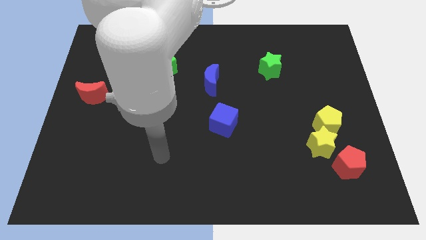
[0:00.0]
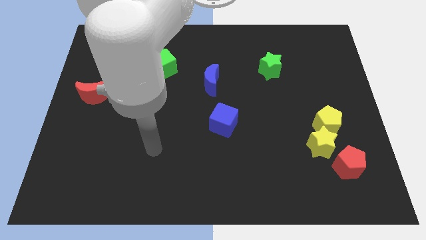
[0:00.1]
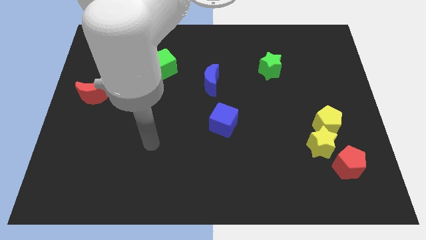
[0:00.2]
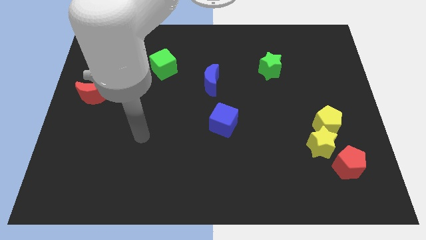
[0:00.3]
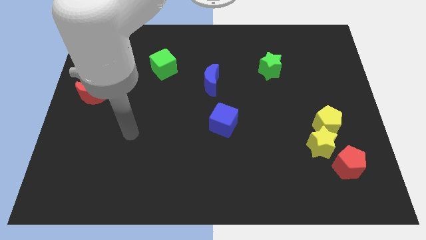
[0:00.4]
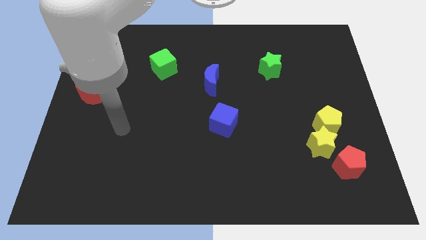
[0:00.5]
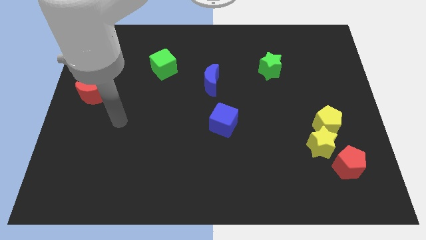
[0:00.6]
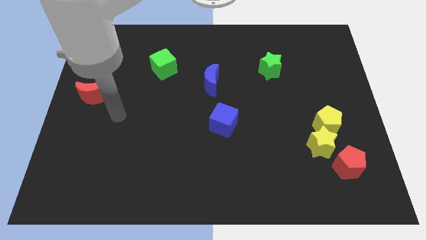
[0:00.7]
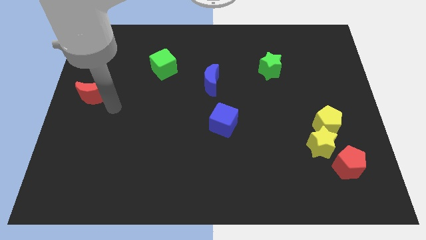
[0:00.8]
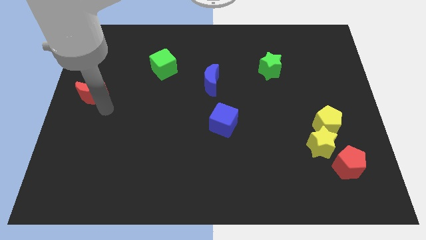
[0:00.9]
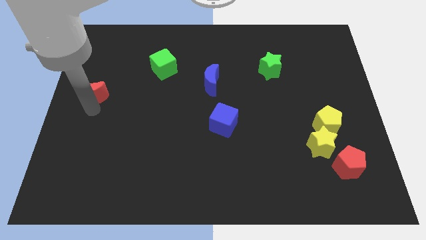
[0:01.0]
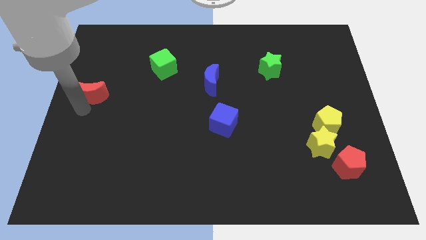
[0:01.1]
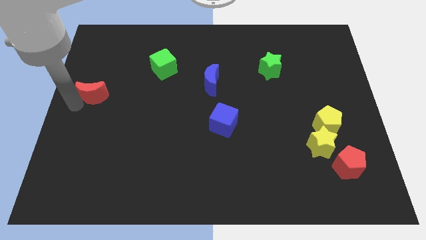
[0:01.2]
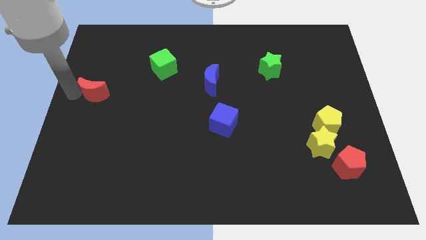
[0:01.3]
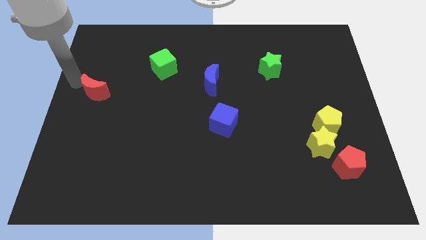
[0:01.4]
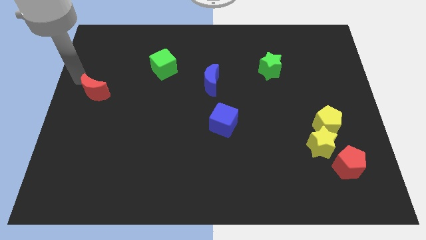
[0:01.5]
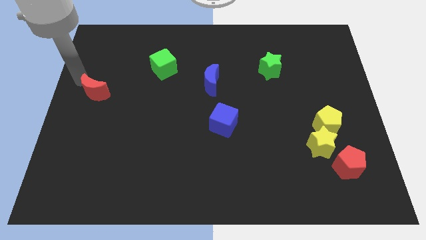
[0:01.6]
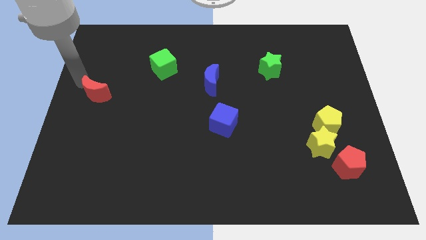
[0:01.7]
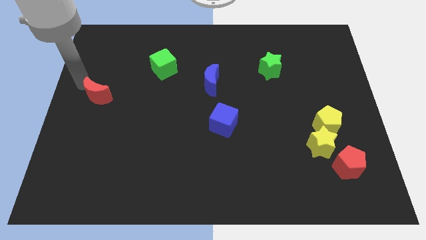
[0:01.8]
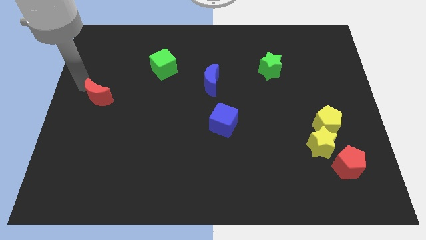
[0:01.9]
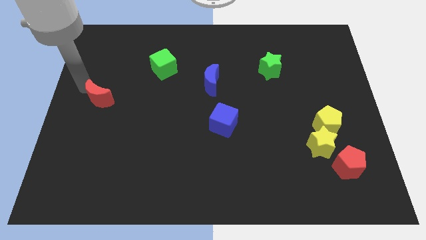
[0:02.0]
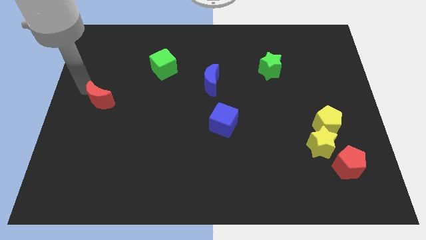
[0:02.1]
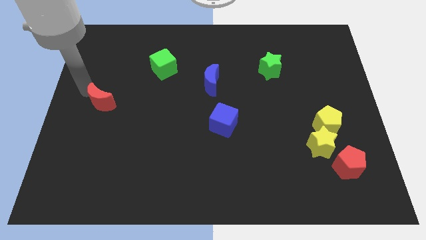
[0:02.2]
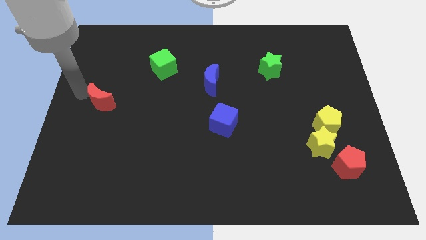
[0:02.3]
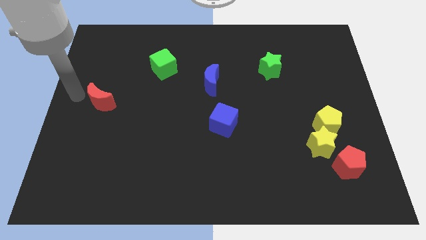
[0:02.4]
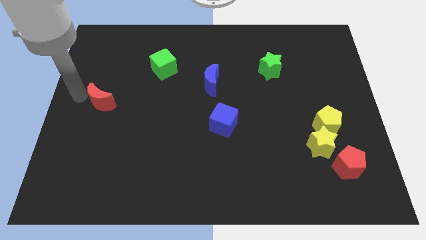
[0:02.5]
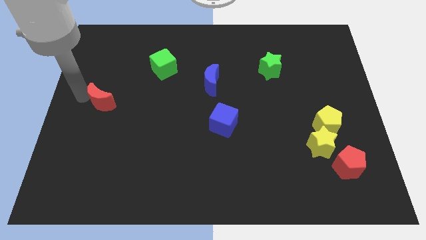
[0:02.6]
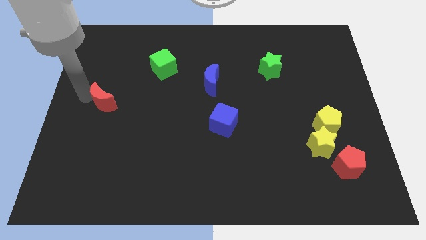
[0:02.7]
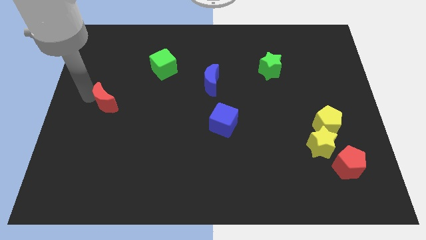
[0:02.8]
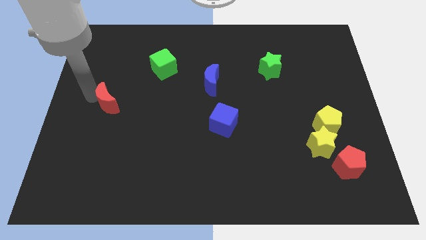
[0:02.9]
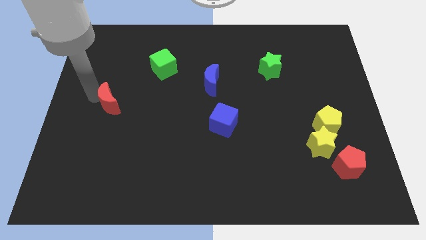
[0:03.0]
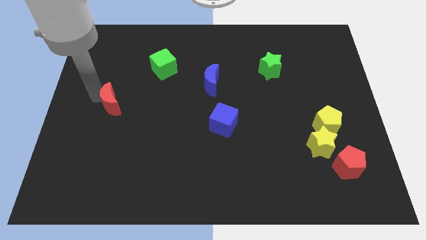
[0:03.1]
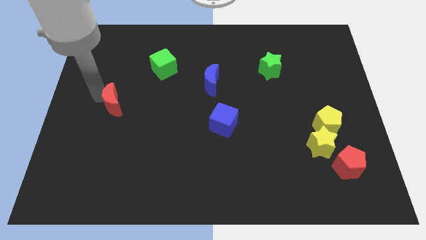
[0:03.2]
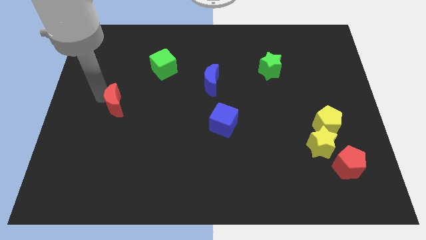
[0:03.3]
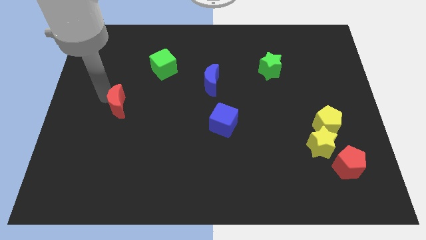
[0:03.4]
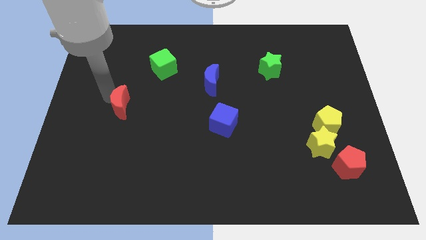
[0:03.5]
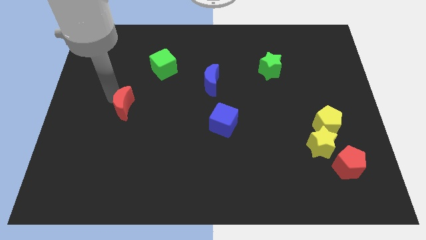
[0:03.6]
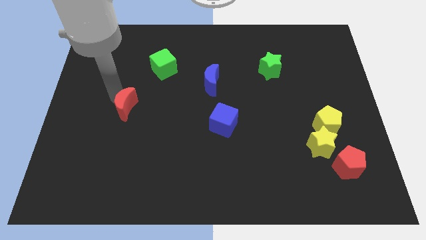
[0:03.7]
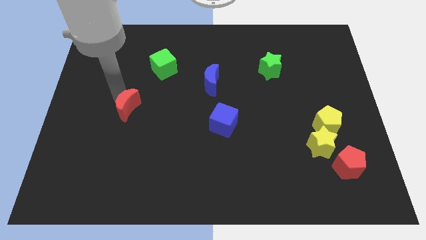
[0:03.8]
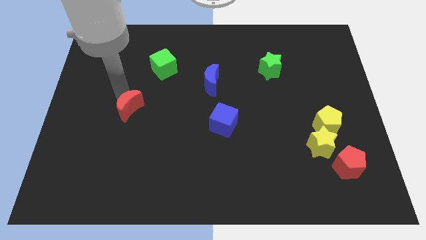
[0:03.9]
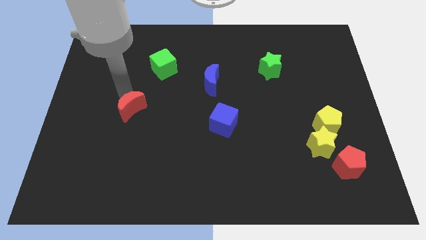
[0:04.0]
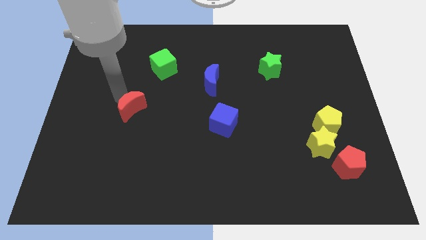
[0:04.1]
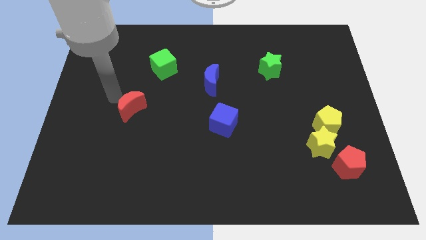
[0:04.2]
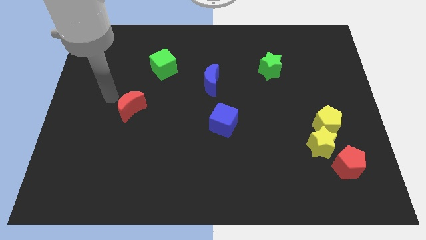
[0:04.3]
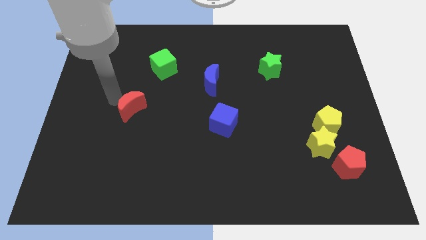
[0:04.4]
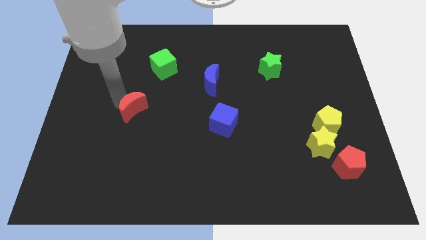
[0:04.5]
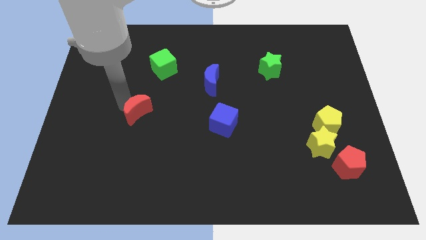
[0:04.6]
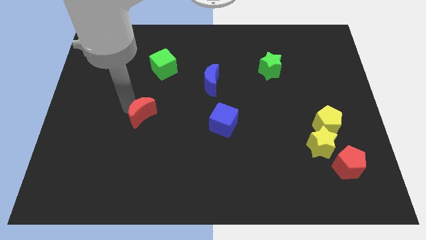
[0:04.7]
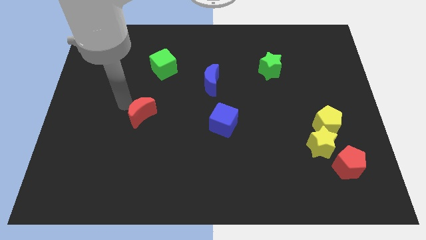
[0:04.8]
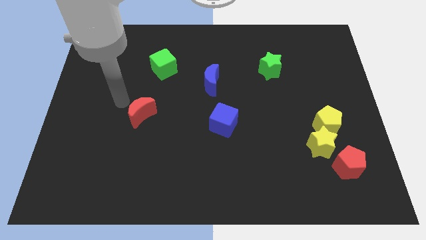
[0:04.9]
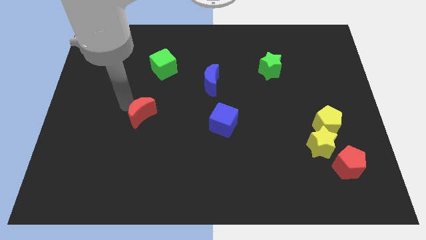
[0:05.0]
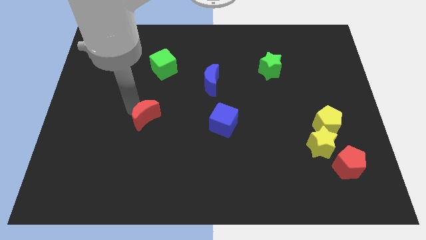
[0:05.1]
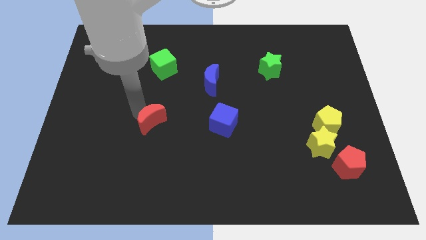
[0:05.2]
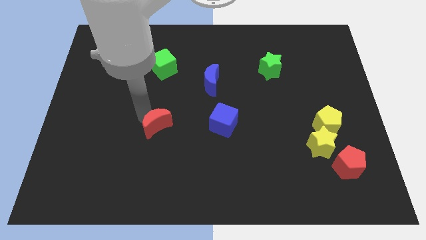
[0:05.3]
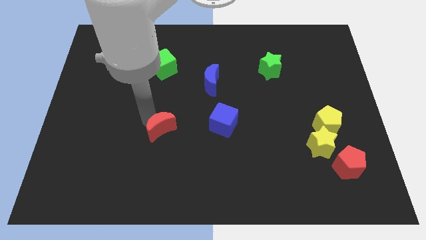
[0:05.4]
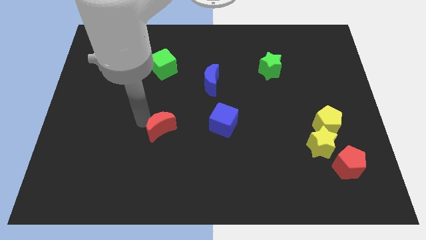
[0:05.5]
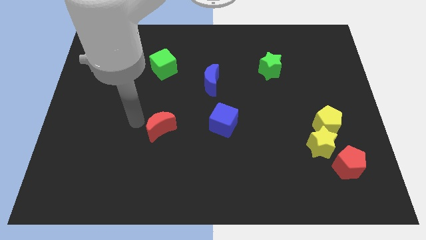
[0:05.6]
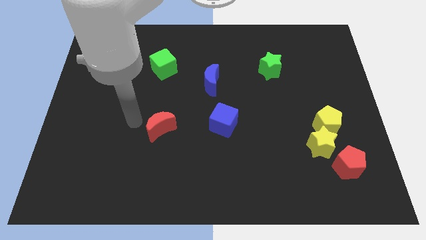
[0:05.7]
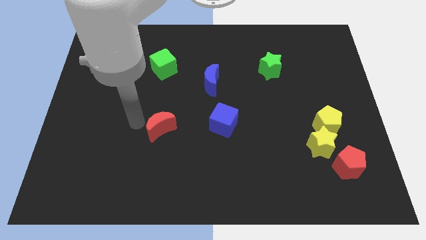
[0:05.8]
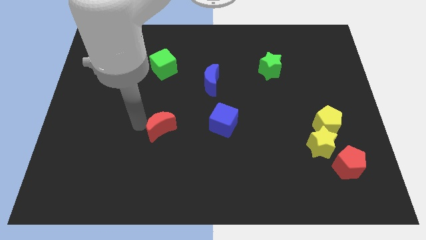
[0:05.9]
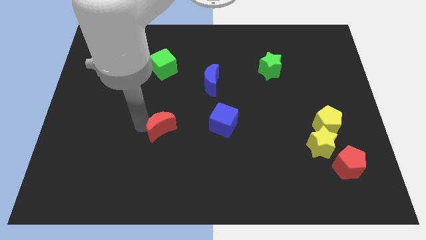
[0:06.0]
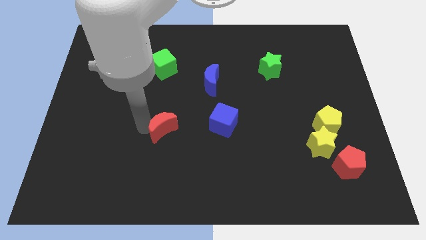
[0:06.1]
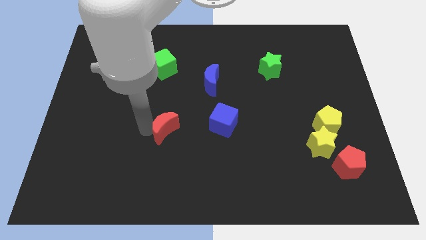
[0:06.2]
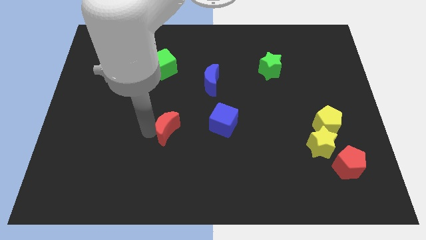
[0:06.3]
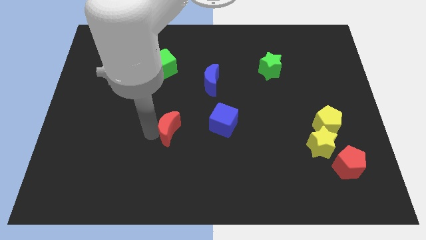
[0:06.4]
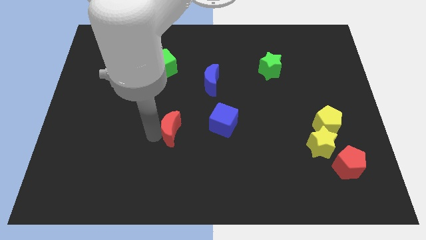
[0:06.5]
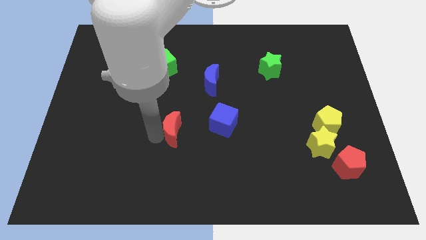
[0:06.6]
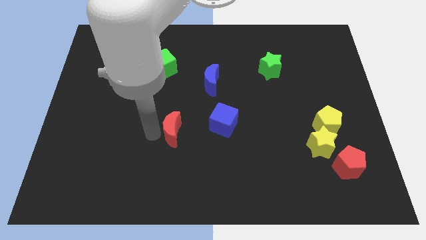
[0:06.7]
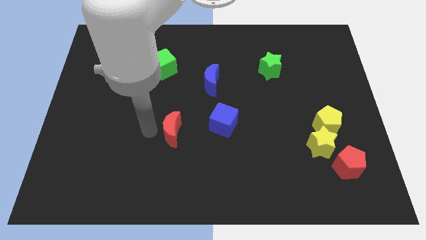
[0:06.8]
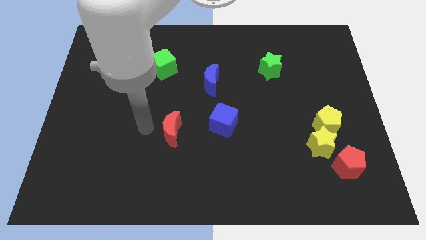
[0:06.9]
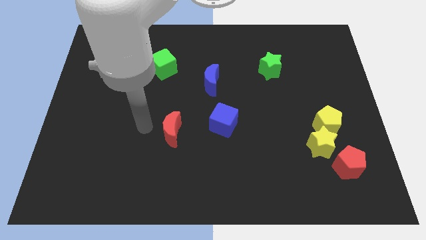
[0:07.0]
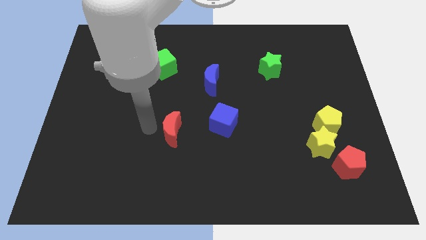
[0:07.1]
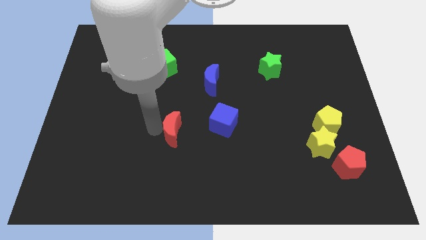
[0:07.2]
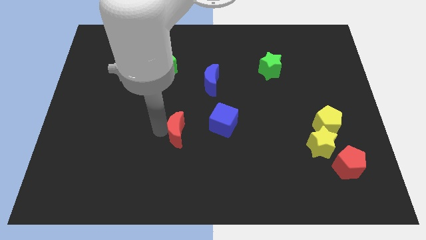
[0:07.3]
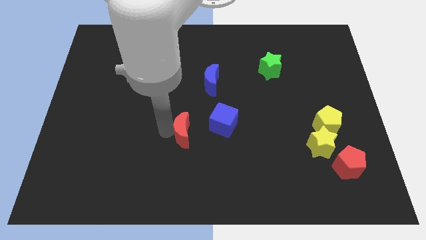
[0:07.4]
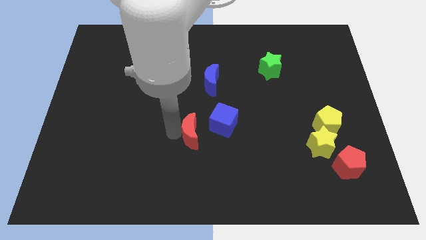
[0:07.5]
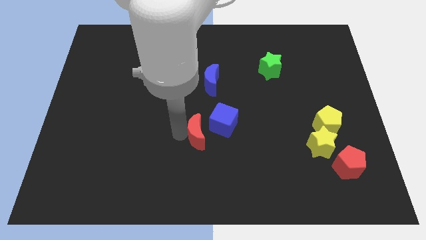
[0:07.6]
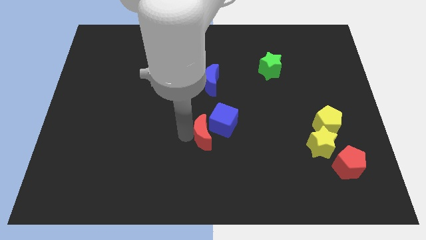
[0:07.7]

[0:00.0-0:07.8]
push the red moon to the bottom side of the blue moon
